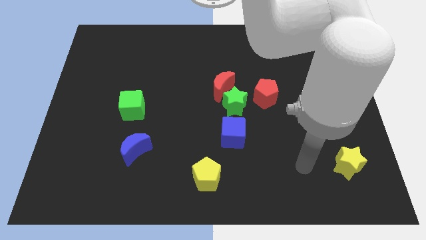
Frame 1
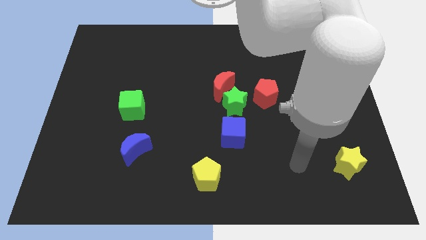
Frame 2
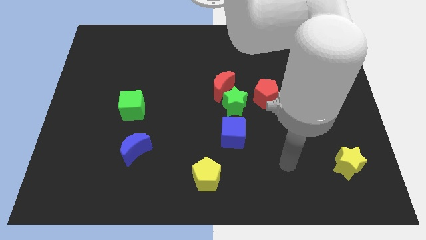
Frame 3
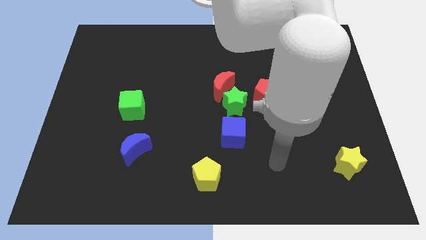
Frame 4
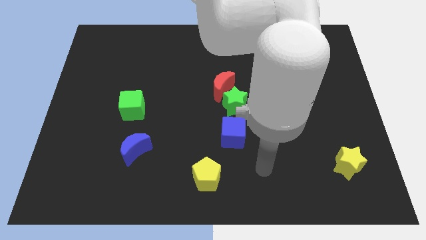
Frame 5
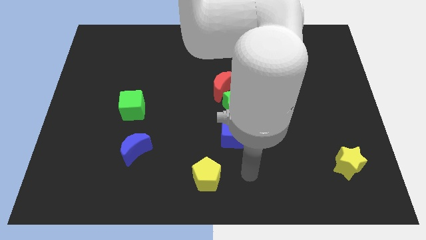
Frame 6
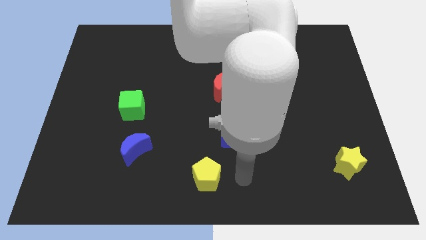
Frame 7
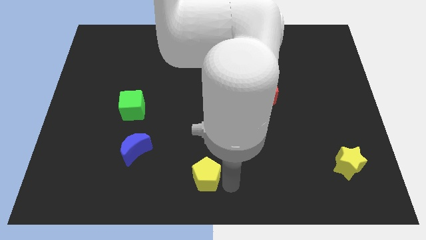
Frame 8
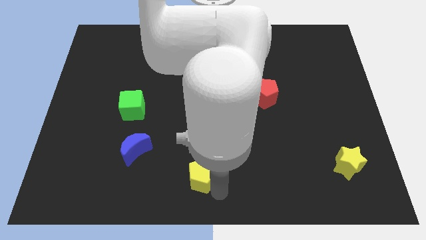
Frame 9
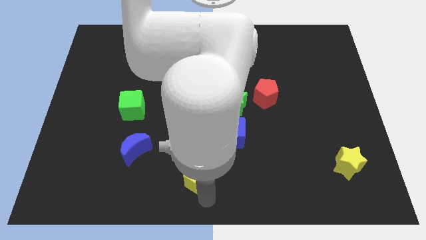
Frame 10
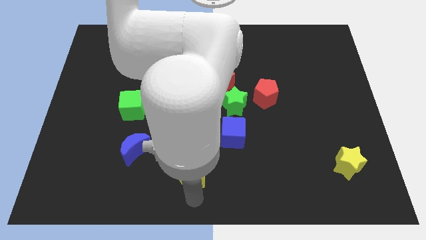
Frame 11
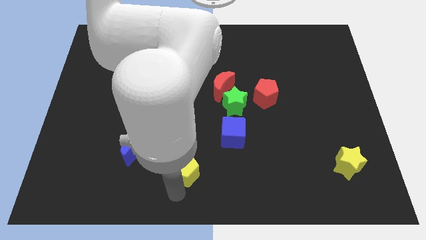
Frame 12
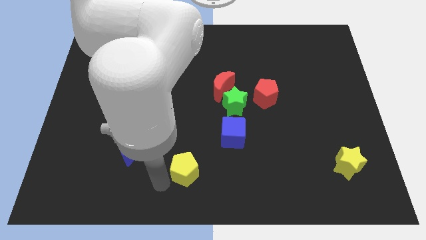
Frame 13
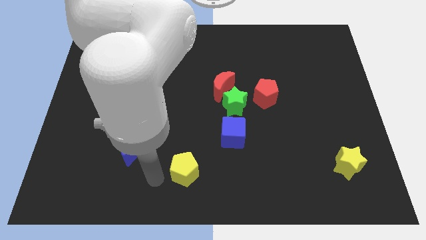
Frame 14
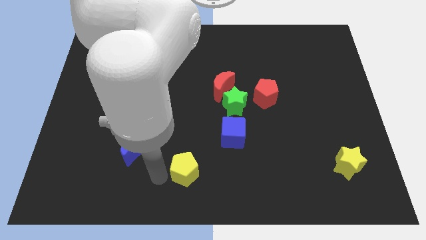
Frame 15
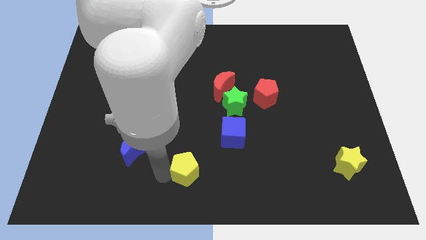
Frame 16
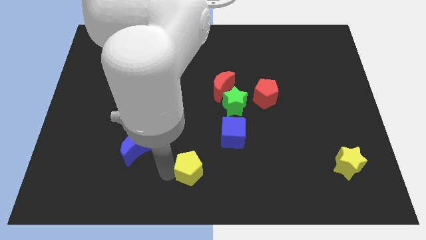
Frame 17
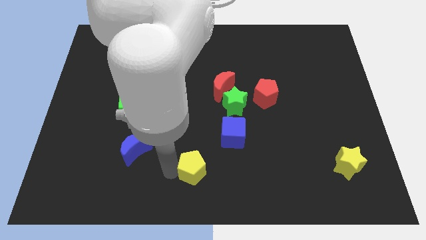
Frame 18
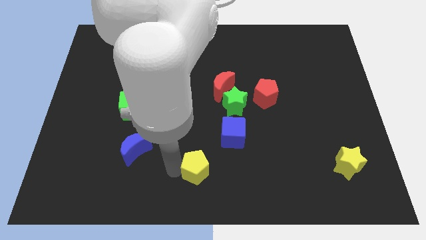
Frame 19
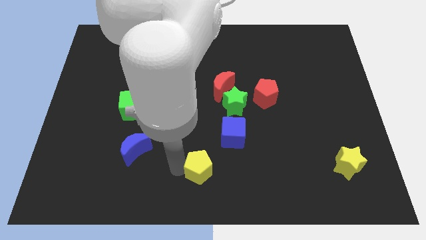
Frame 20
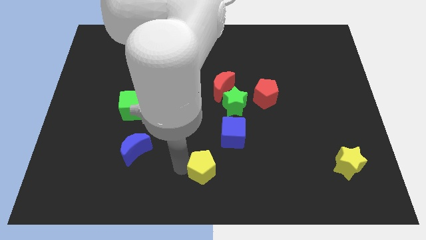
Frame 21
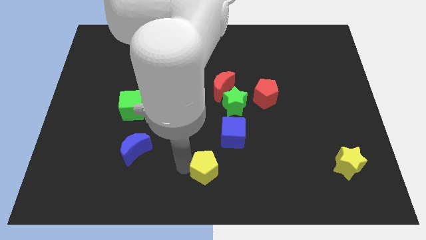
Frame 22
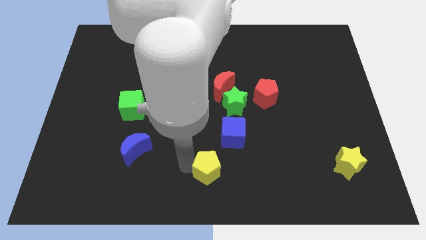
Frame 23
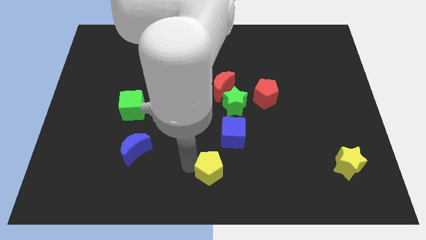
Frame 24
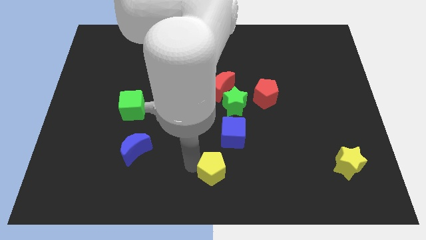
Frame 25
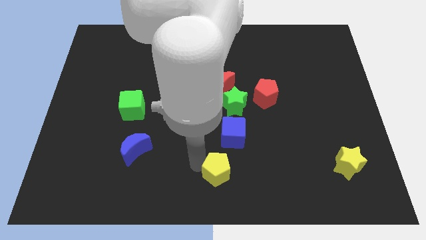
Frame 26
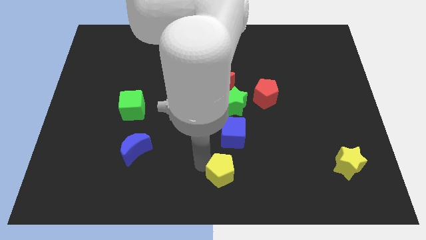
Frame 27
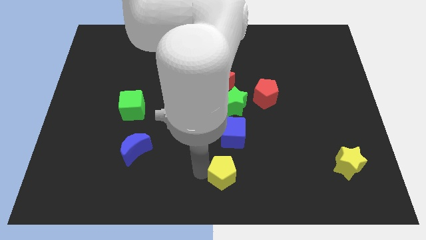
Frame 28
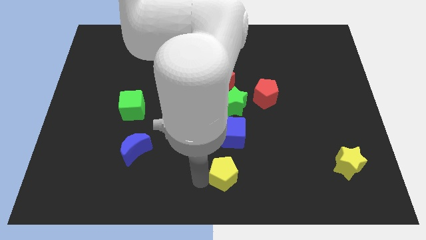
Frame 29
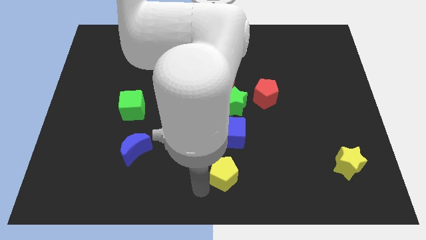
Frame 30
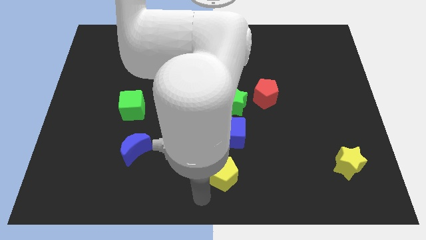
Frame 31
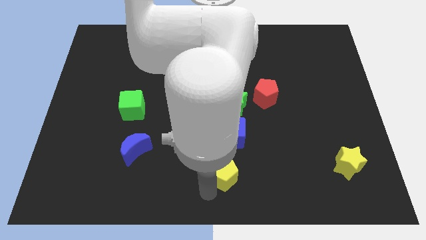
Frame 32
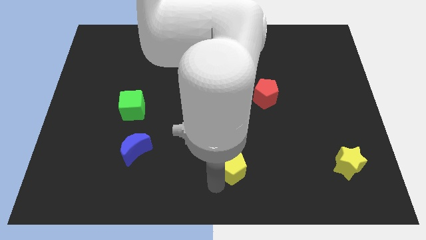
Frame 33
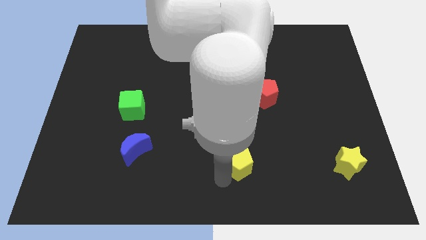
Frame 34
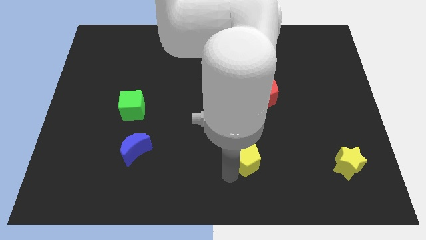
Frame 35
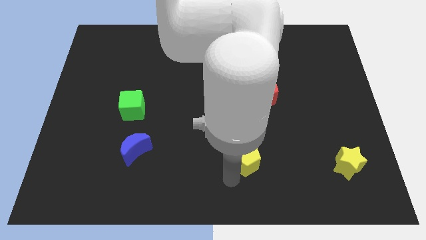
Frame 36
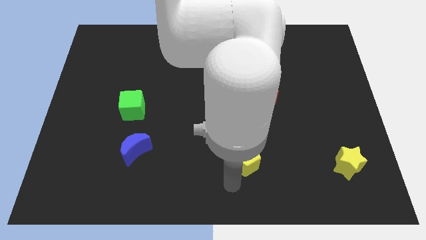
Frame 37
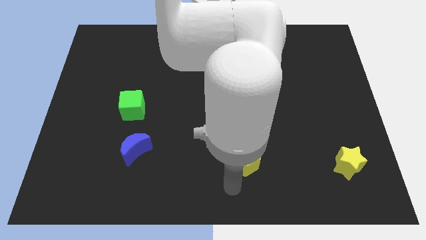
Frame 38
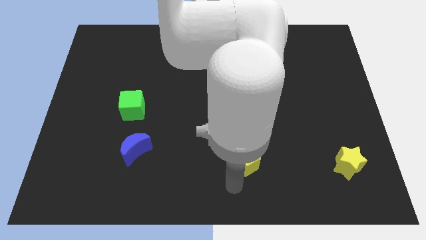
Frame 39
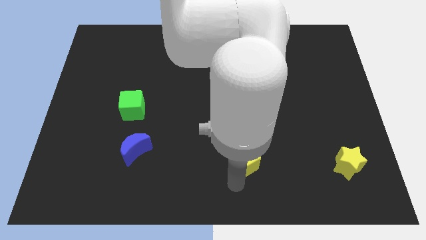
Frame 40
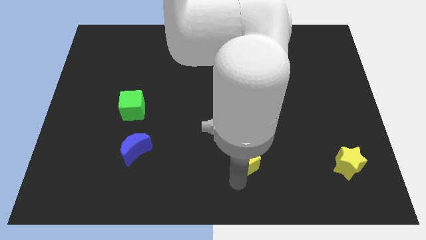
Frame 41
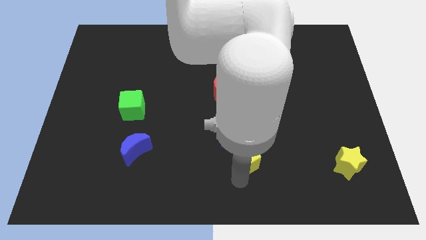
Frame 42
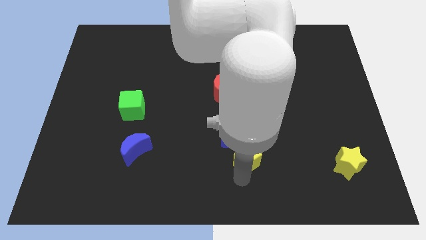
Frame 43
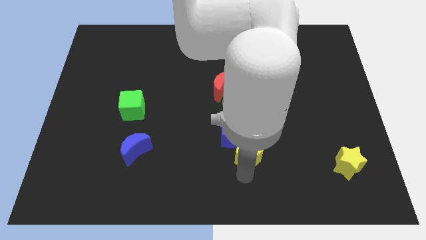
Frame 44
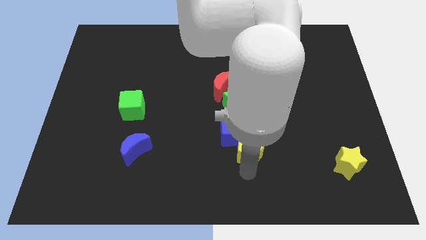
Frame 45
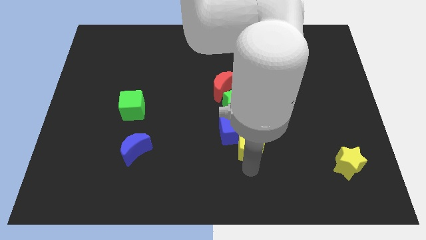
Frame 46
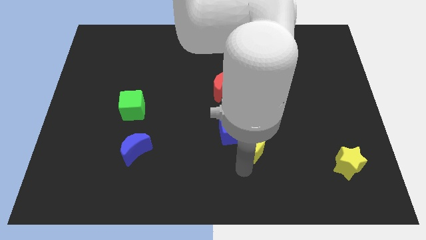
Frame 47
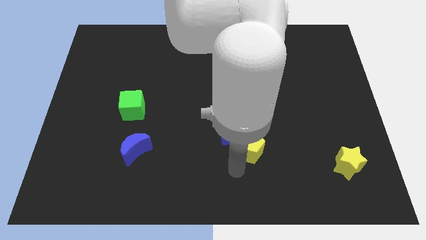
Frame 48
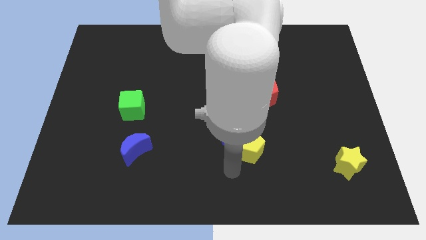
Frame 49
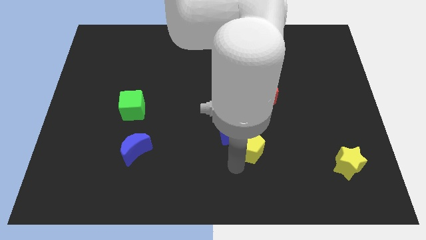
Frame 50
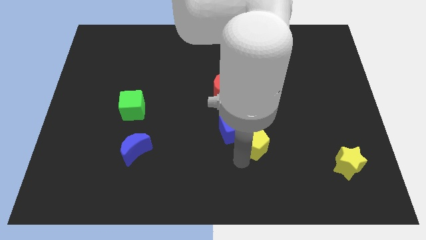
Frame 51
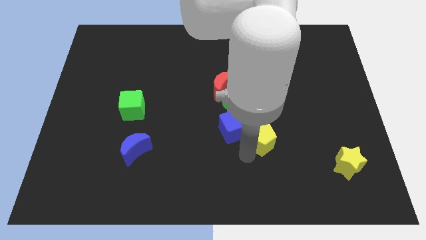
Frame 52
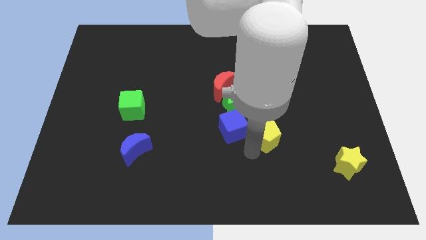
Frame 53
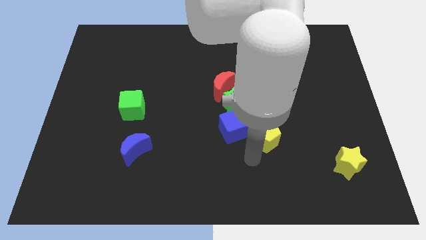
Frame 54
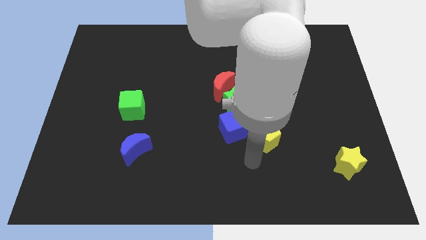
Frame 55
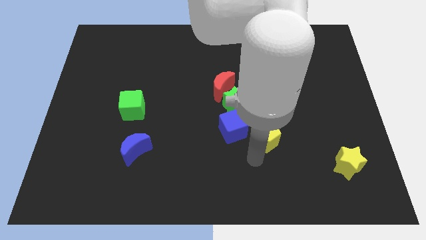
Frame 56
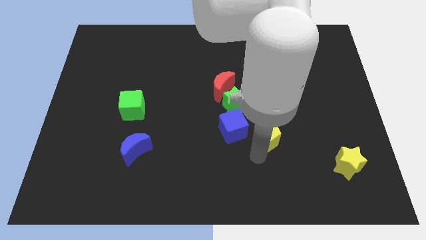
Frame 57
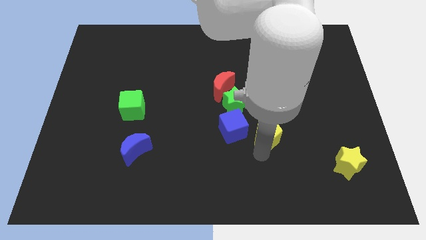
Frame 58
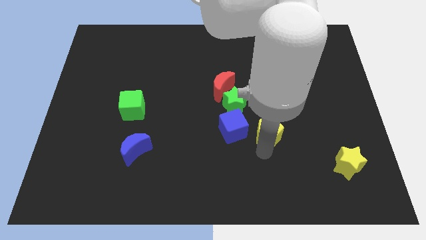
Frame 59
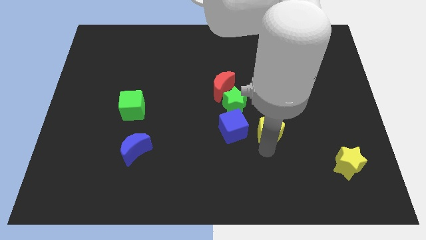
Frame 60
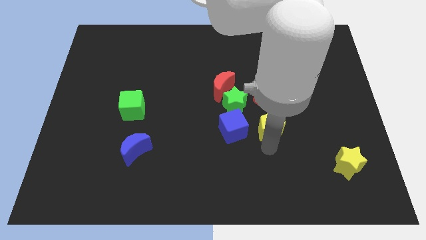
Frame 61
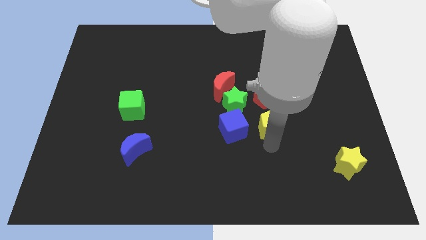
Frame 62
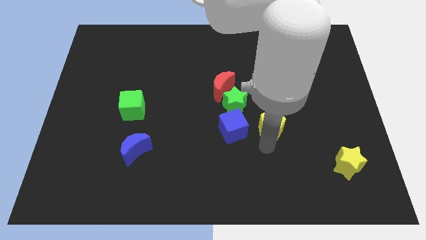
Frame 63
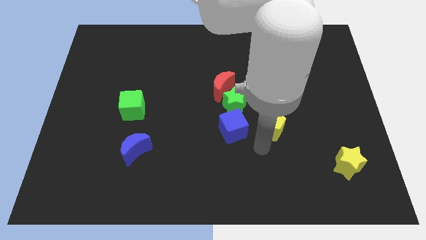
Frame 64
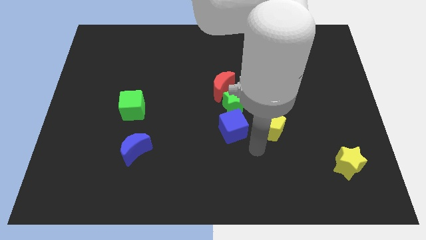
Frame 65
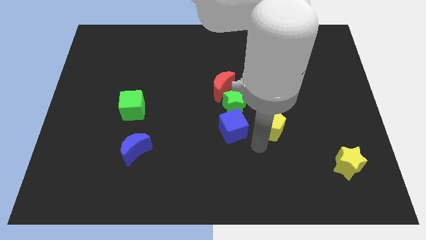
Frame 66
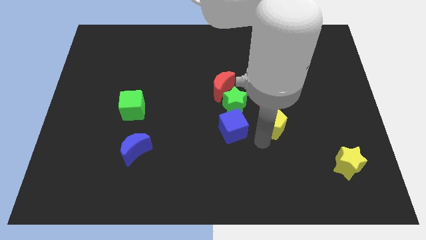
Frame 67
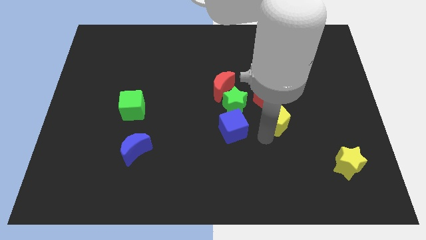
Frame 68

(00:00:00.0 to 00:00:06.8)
push the yellow pentagon diagonally upwards and to the right

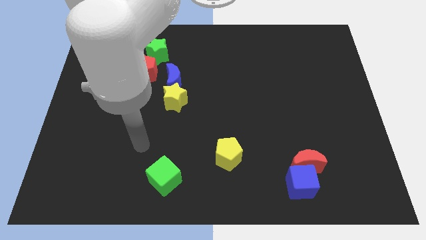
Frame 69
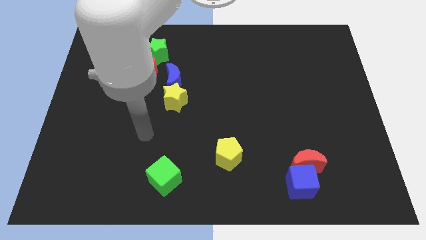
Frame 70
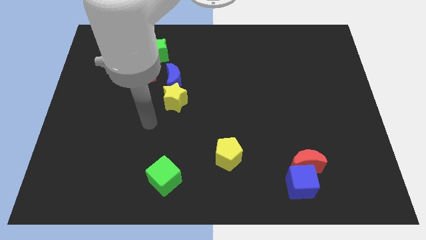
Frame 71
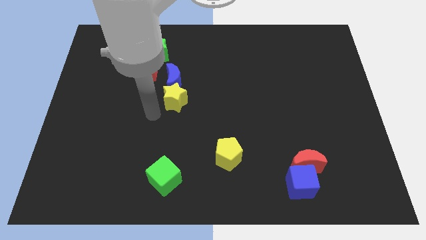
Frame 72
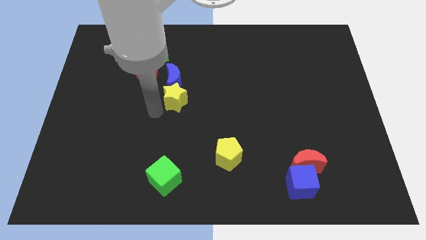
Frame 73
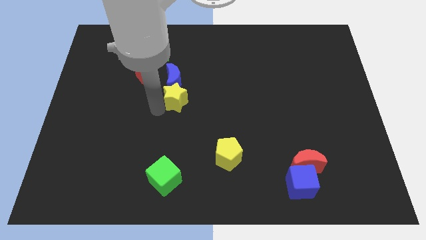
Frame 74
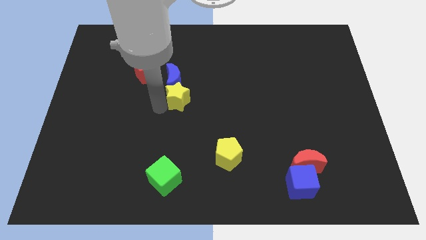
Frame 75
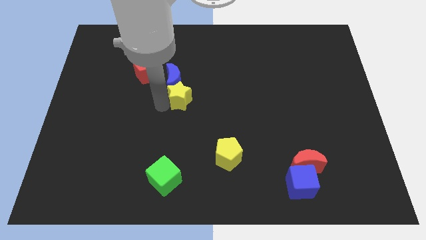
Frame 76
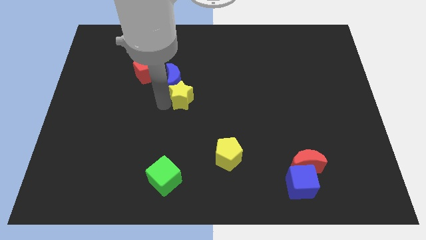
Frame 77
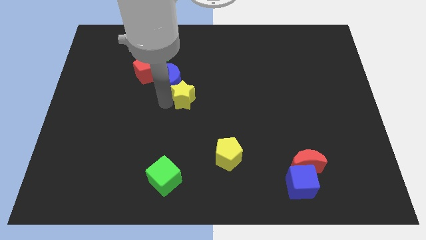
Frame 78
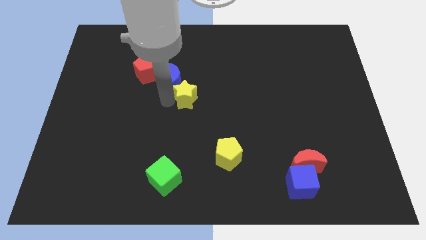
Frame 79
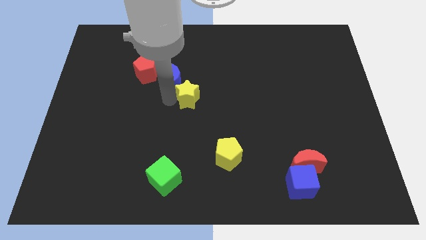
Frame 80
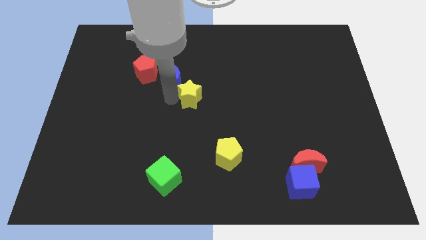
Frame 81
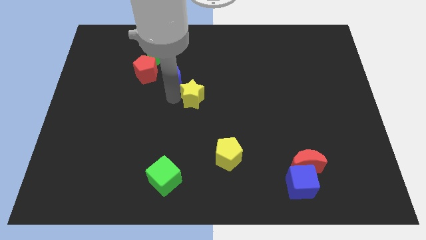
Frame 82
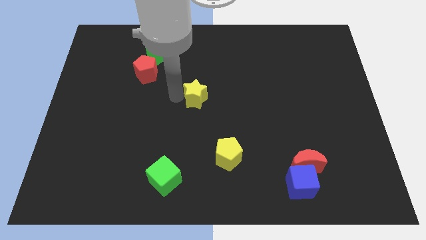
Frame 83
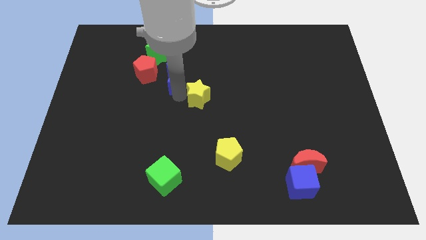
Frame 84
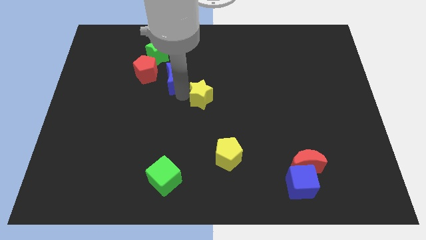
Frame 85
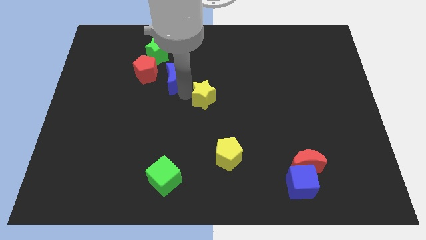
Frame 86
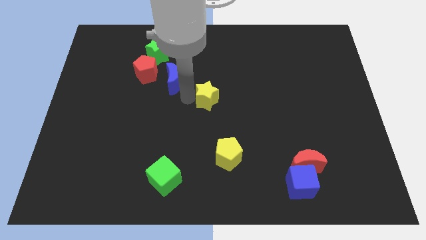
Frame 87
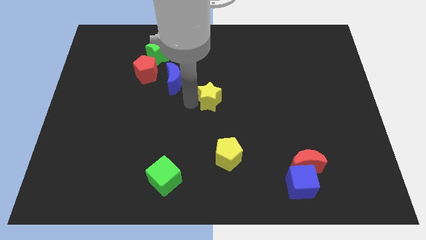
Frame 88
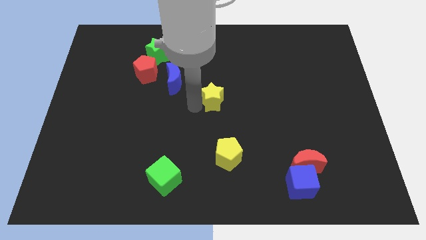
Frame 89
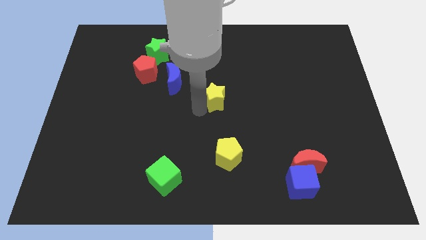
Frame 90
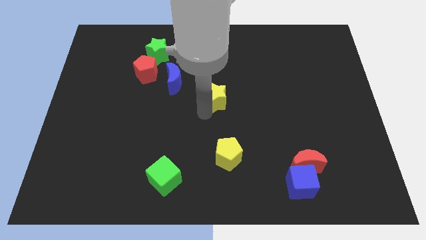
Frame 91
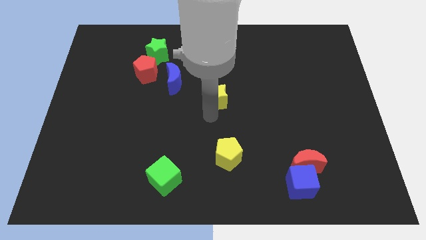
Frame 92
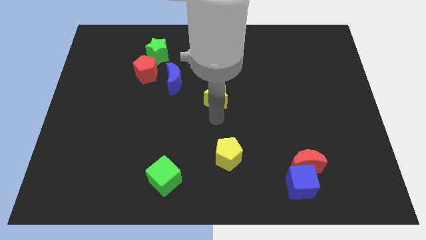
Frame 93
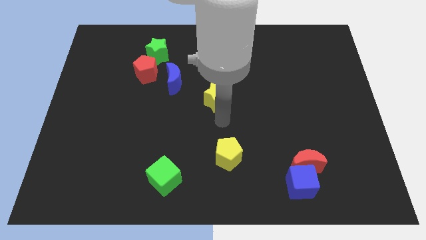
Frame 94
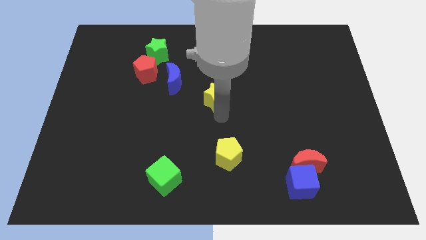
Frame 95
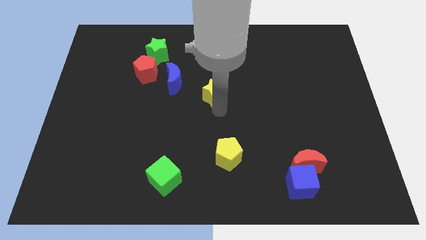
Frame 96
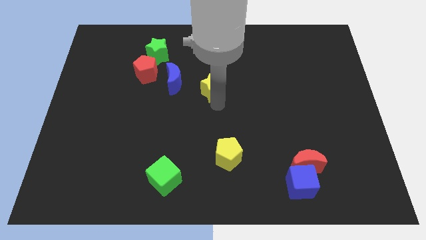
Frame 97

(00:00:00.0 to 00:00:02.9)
slightly slide the yellow star up and then to the right
